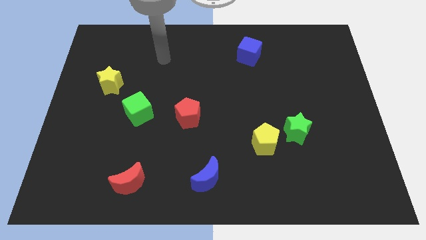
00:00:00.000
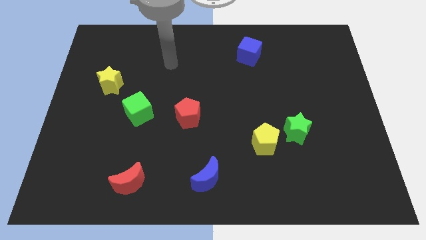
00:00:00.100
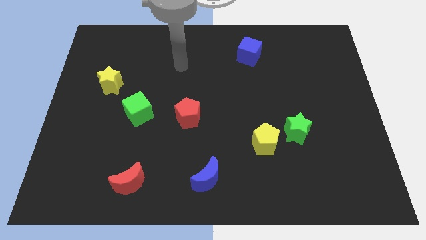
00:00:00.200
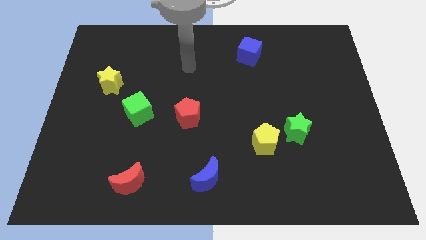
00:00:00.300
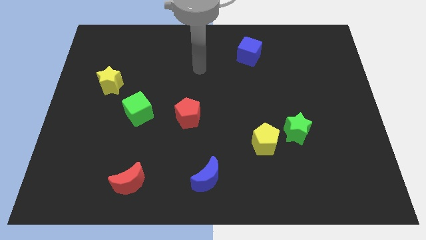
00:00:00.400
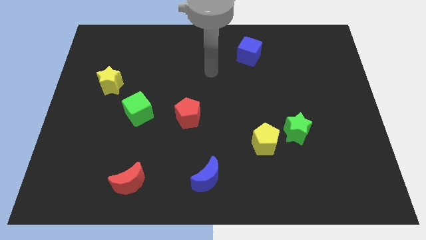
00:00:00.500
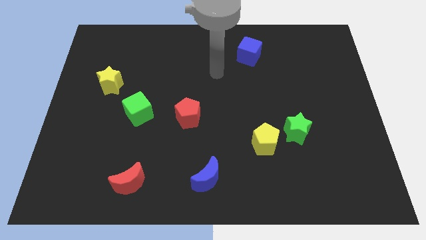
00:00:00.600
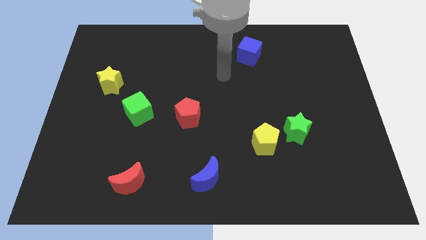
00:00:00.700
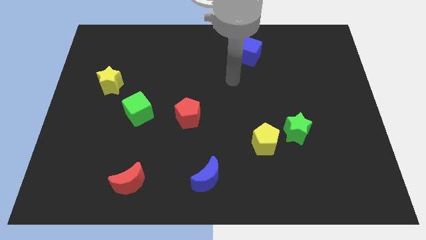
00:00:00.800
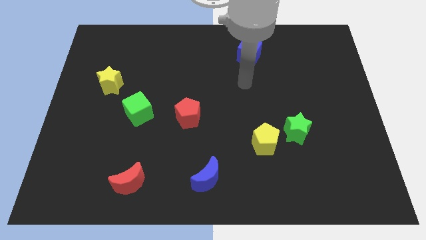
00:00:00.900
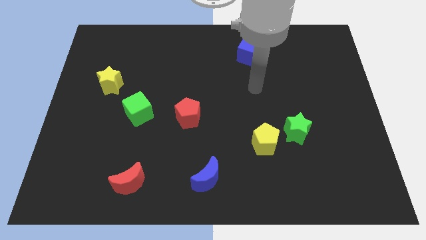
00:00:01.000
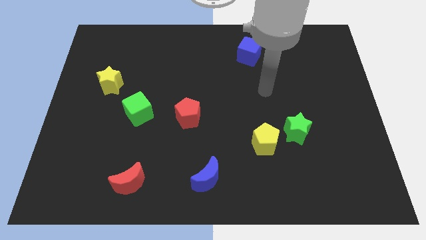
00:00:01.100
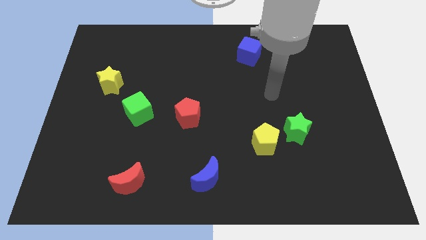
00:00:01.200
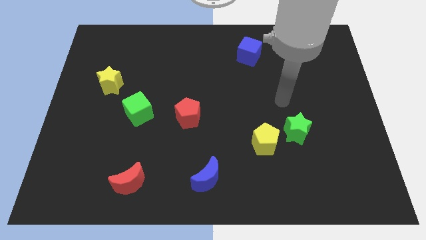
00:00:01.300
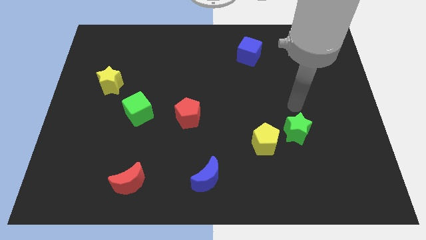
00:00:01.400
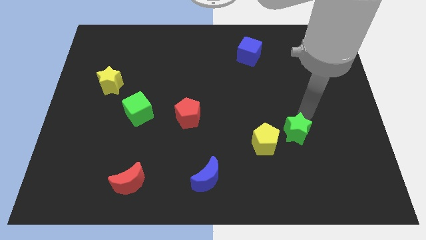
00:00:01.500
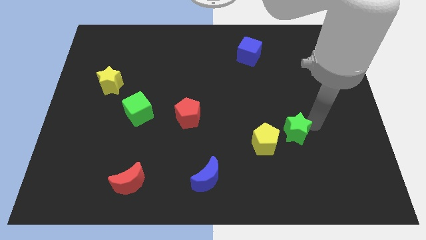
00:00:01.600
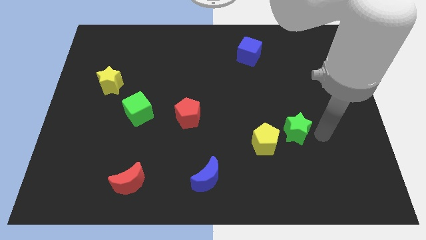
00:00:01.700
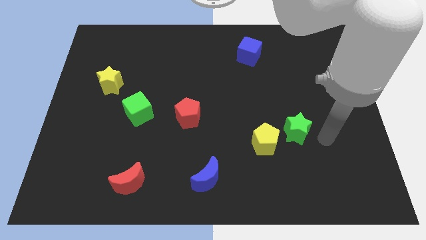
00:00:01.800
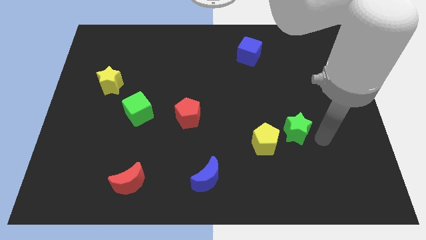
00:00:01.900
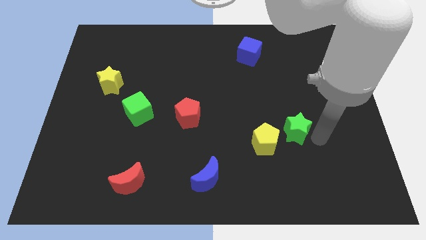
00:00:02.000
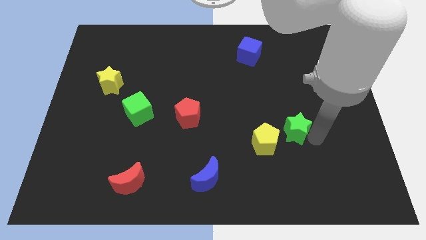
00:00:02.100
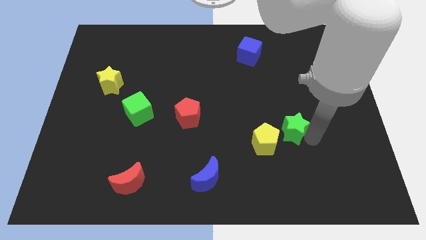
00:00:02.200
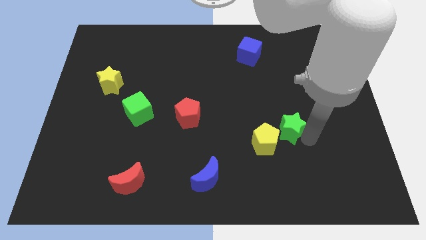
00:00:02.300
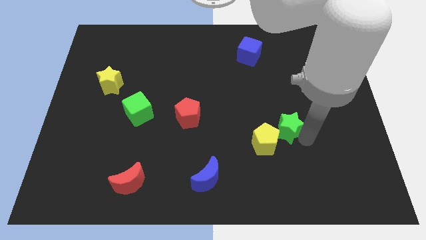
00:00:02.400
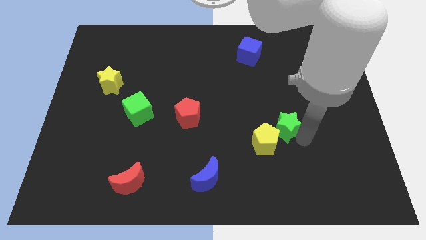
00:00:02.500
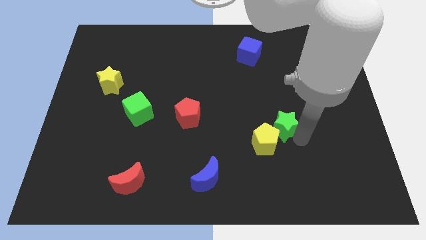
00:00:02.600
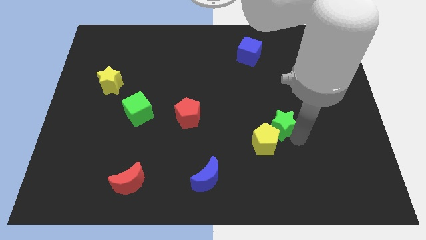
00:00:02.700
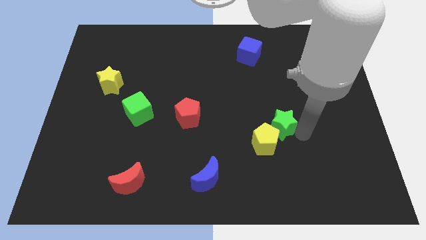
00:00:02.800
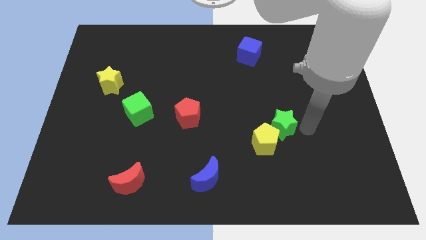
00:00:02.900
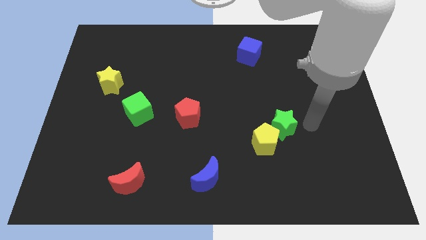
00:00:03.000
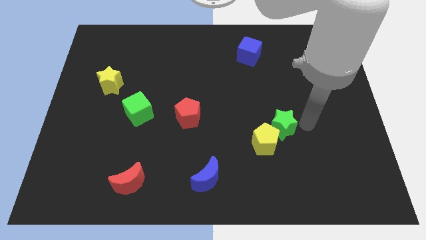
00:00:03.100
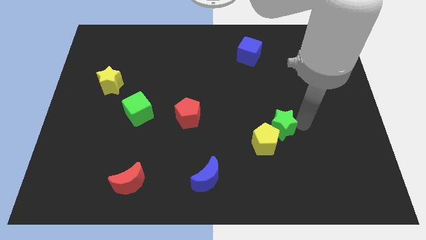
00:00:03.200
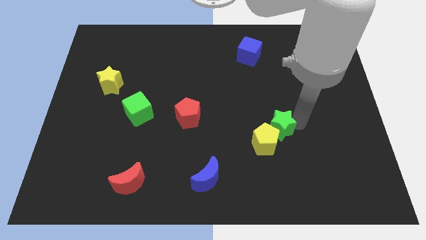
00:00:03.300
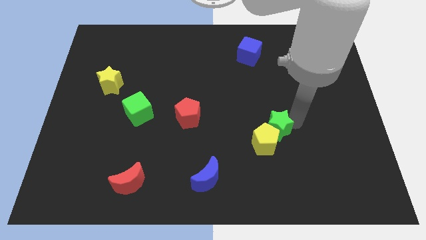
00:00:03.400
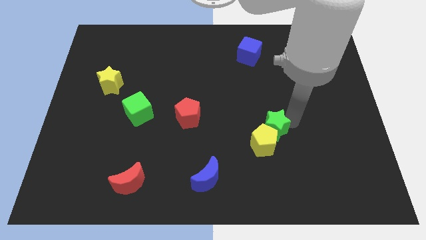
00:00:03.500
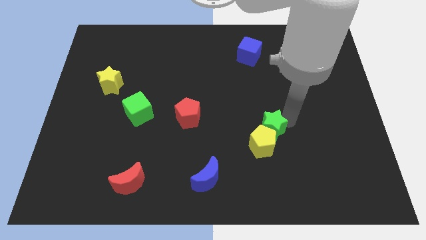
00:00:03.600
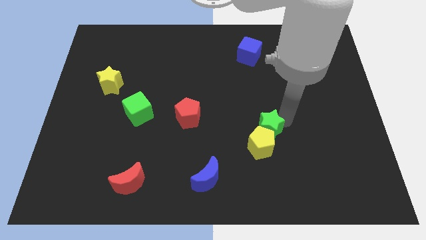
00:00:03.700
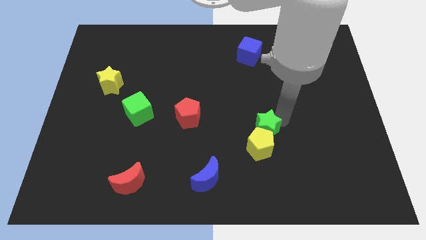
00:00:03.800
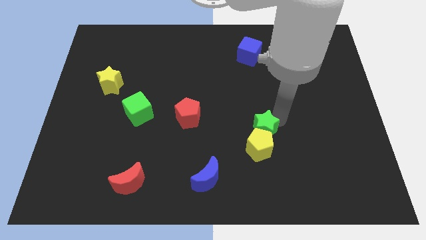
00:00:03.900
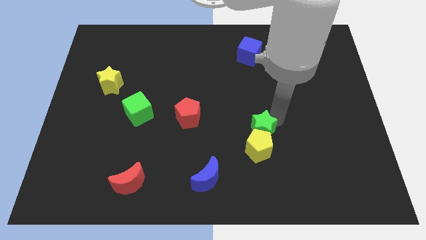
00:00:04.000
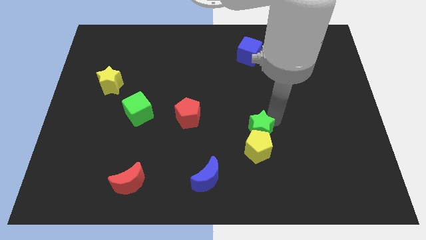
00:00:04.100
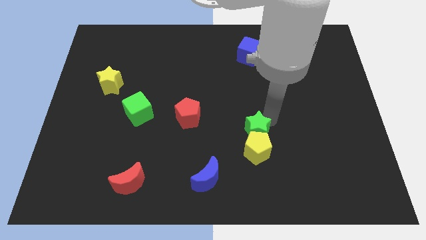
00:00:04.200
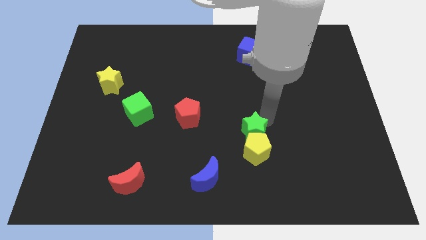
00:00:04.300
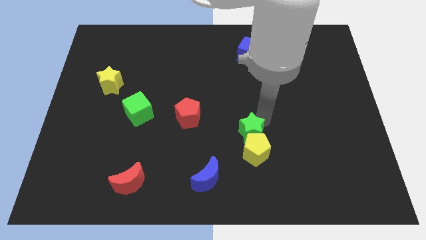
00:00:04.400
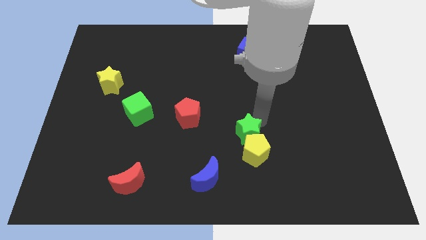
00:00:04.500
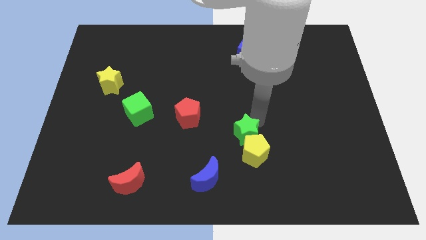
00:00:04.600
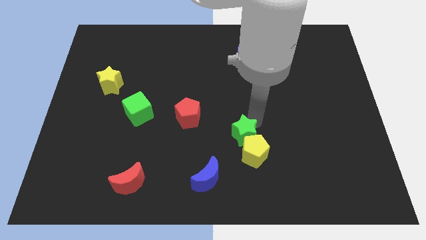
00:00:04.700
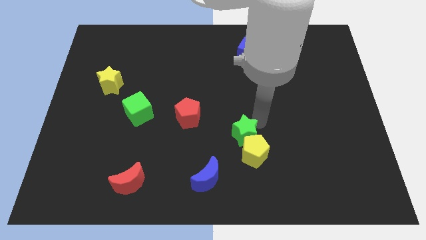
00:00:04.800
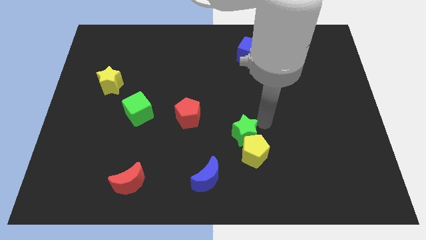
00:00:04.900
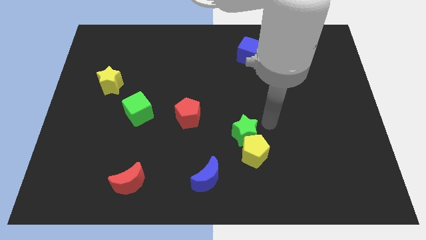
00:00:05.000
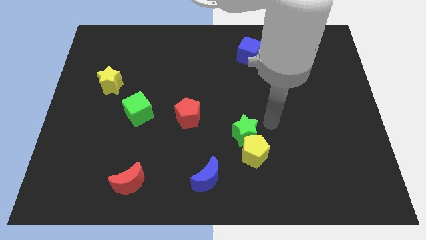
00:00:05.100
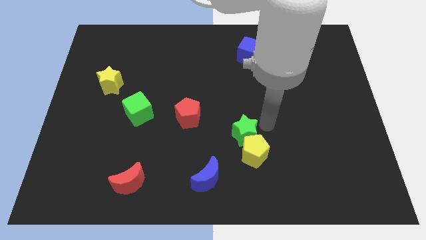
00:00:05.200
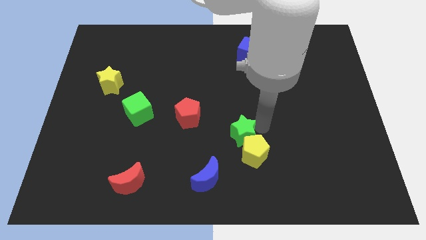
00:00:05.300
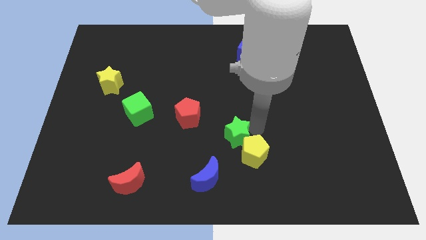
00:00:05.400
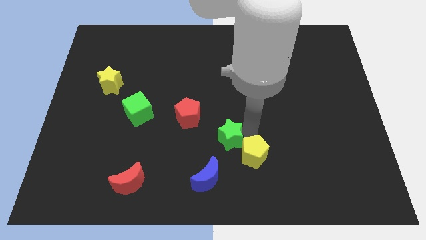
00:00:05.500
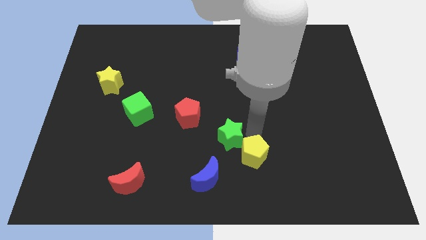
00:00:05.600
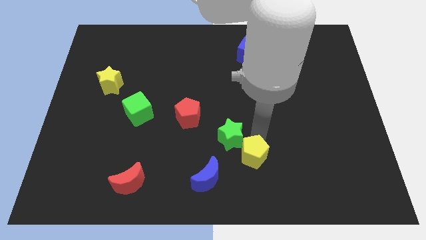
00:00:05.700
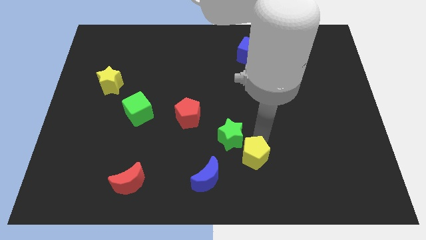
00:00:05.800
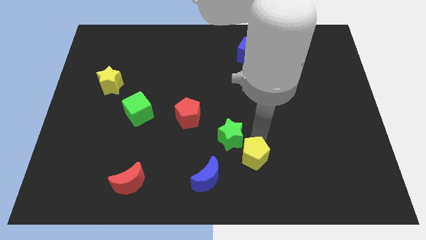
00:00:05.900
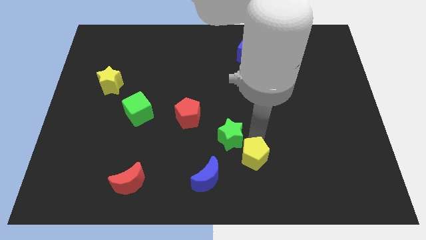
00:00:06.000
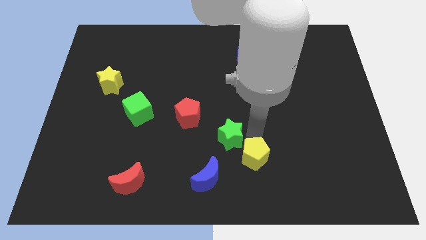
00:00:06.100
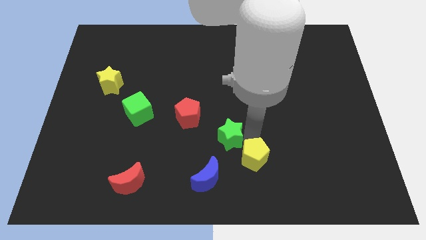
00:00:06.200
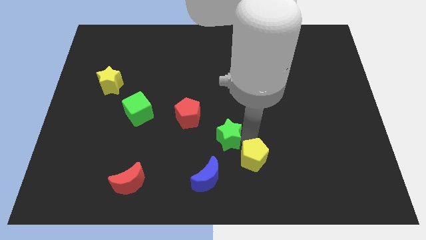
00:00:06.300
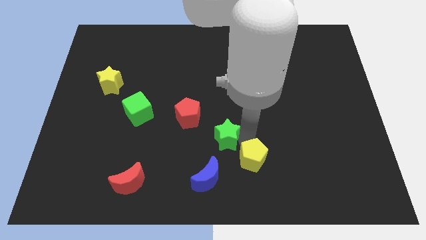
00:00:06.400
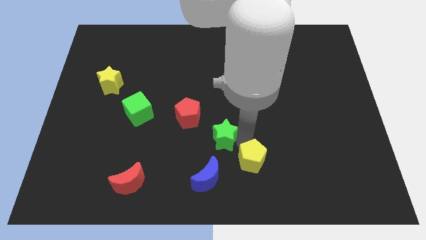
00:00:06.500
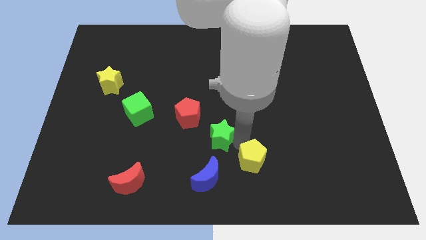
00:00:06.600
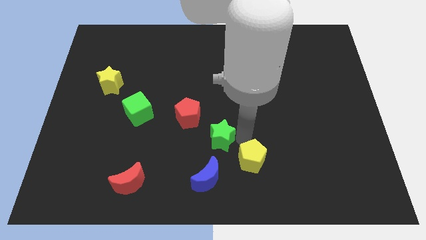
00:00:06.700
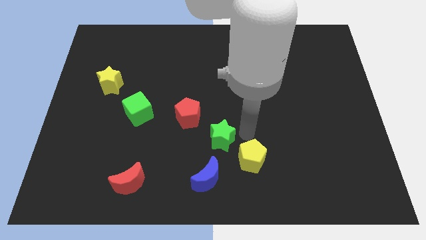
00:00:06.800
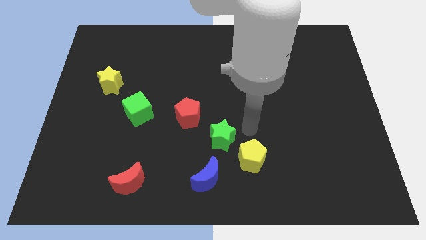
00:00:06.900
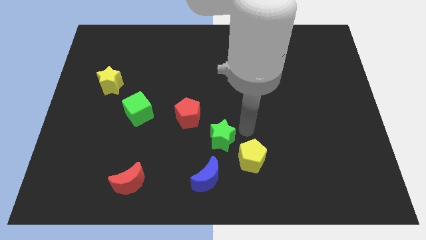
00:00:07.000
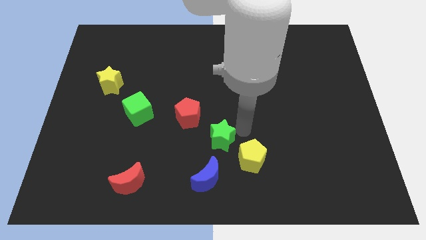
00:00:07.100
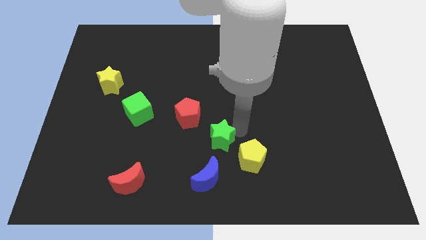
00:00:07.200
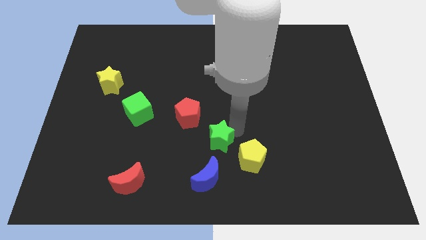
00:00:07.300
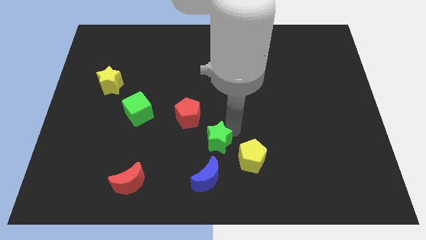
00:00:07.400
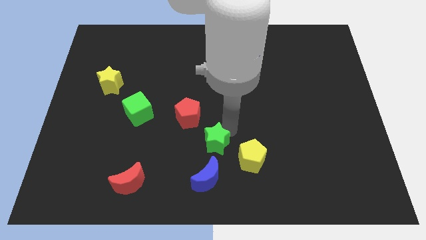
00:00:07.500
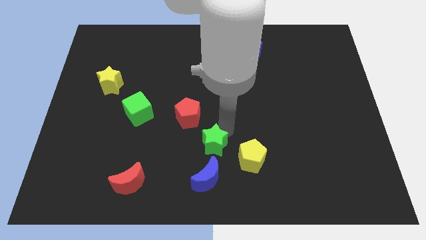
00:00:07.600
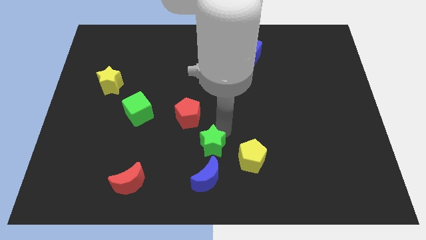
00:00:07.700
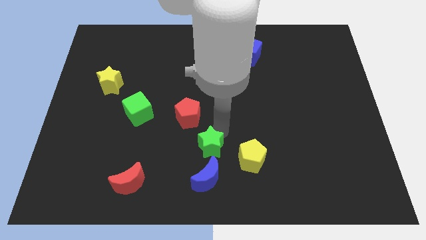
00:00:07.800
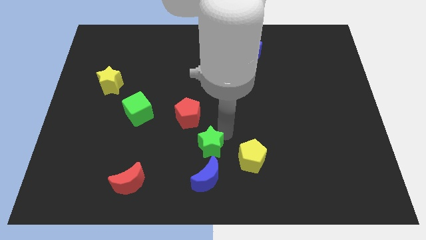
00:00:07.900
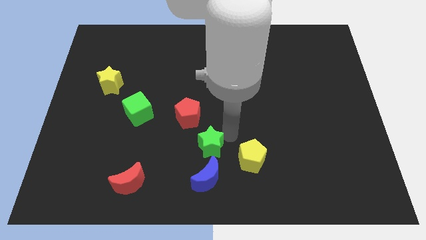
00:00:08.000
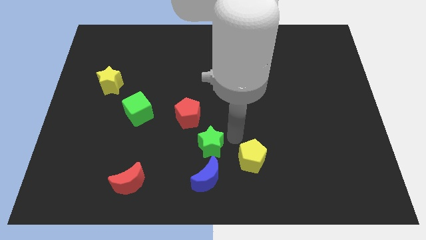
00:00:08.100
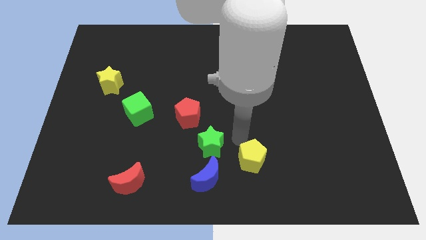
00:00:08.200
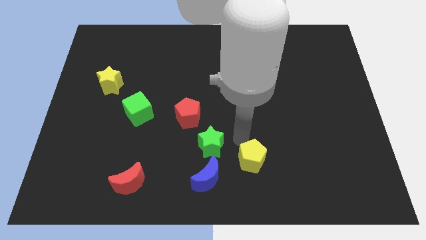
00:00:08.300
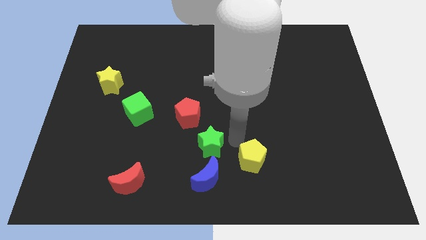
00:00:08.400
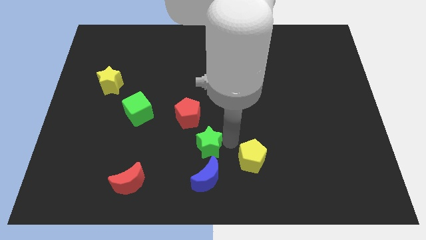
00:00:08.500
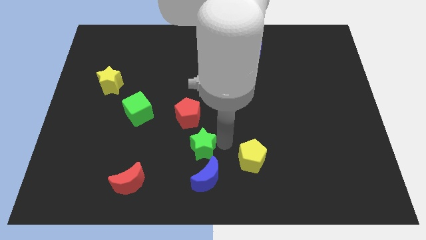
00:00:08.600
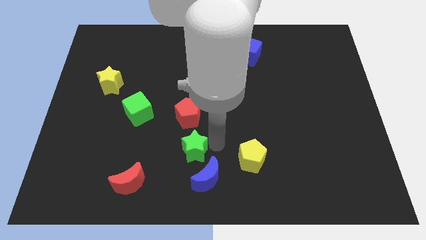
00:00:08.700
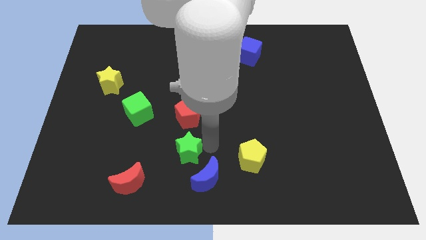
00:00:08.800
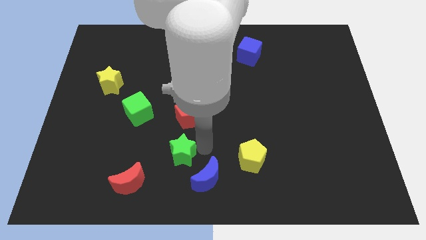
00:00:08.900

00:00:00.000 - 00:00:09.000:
move the green star diagonally up and to the right of the red moon
